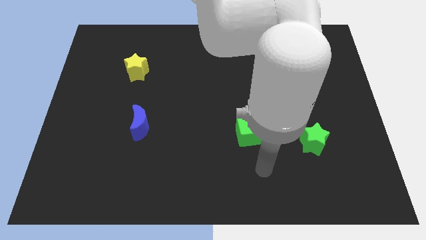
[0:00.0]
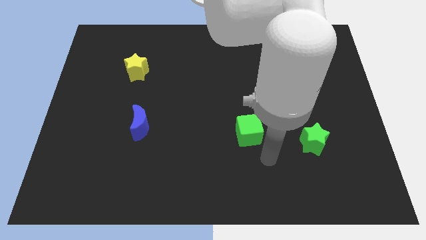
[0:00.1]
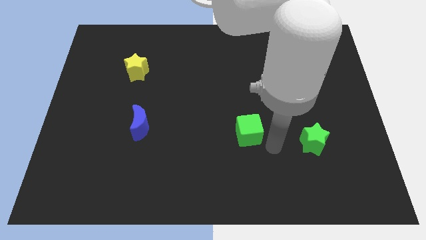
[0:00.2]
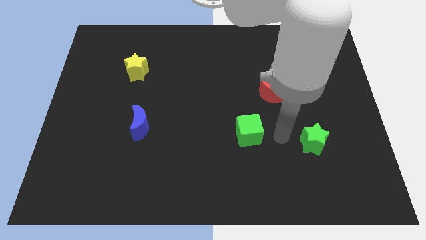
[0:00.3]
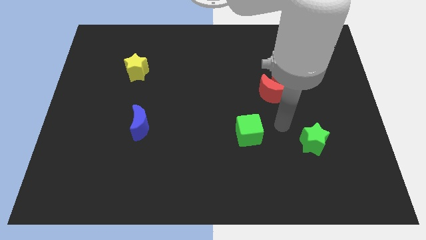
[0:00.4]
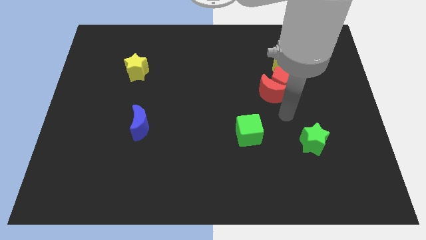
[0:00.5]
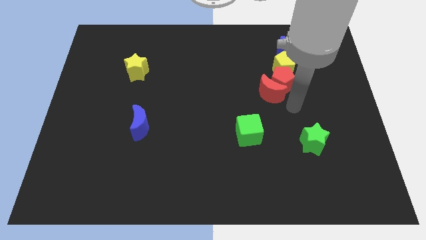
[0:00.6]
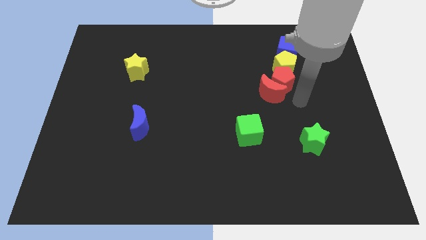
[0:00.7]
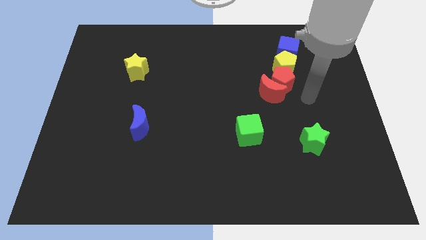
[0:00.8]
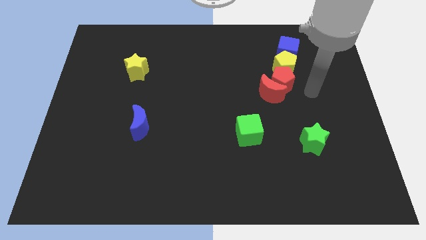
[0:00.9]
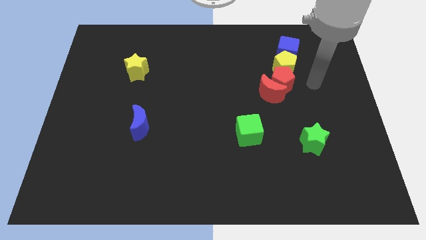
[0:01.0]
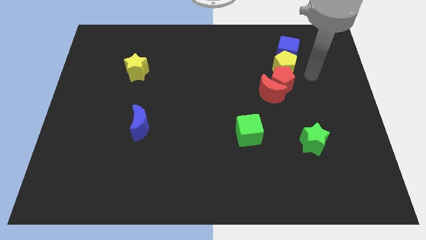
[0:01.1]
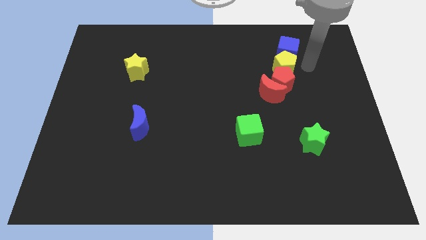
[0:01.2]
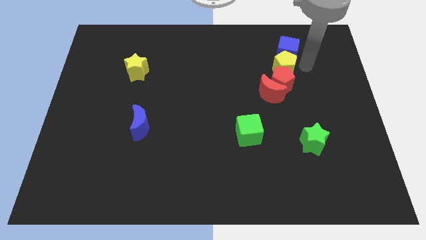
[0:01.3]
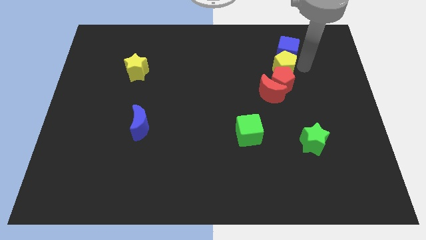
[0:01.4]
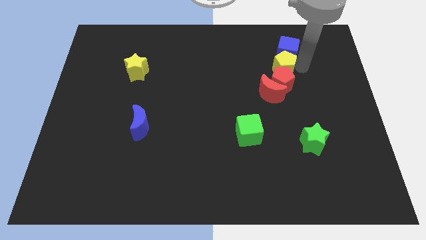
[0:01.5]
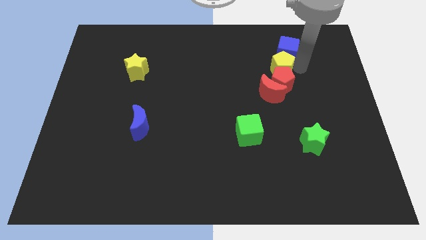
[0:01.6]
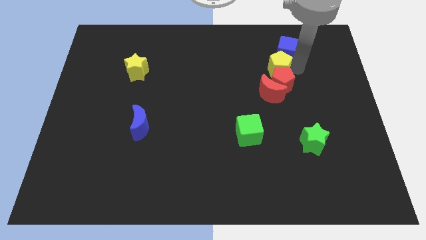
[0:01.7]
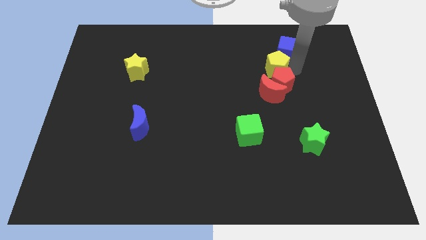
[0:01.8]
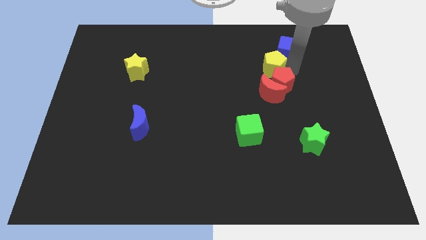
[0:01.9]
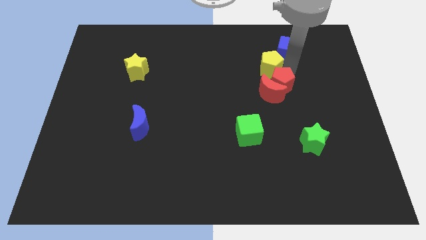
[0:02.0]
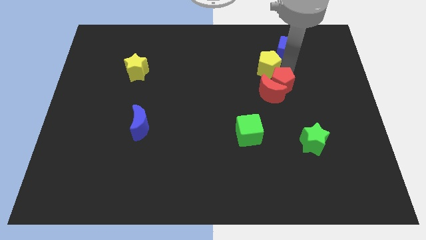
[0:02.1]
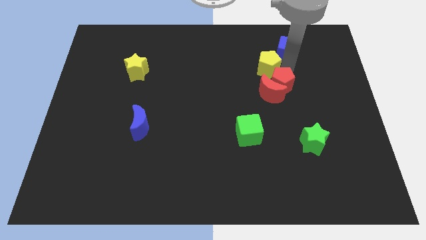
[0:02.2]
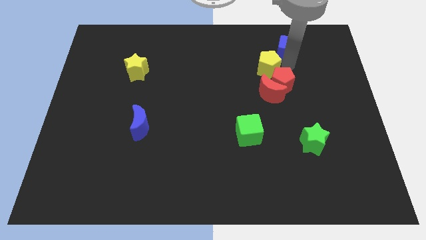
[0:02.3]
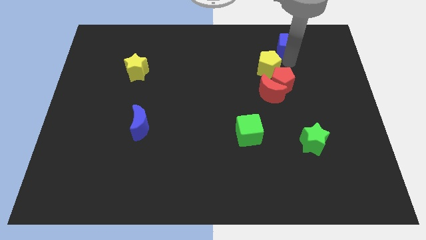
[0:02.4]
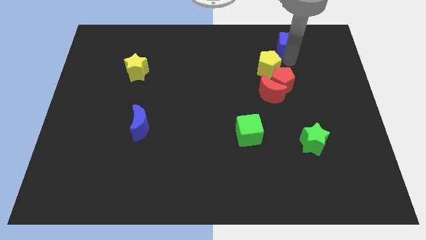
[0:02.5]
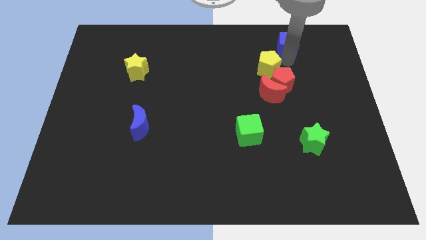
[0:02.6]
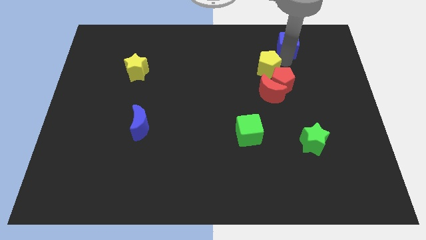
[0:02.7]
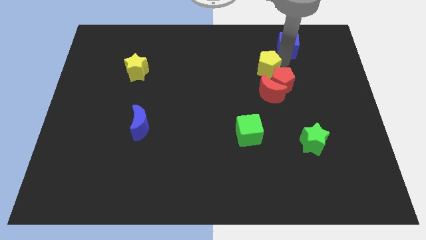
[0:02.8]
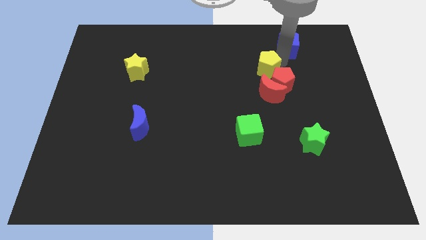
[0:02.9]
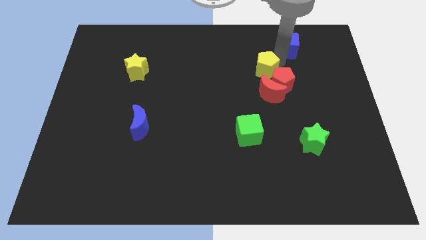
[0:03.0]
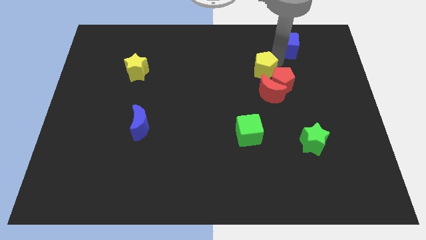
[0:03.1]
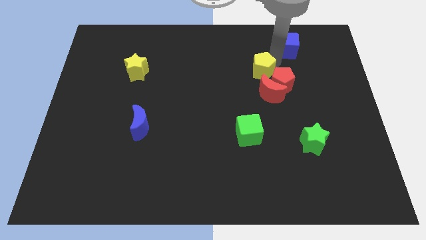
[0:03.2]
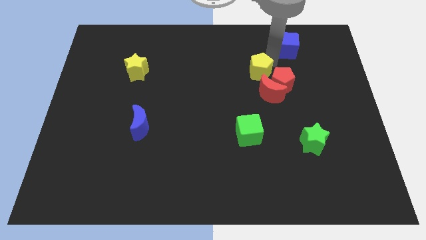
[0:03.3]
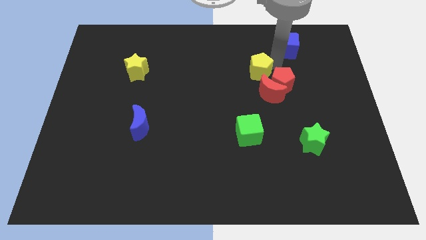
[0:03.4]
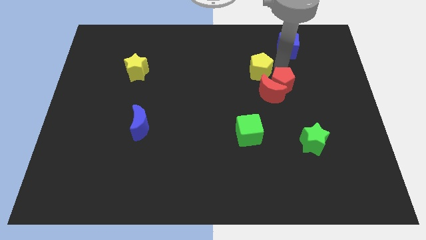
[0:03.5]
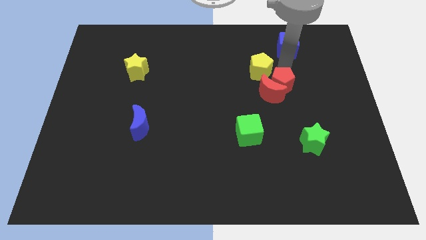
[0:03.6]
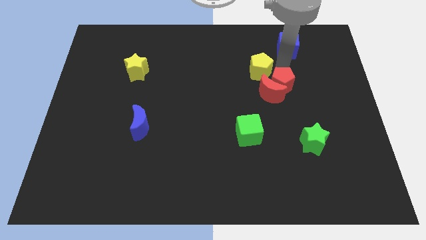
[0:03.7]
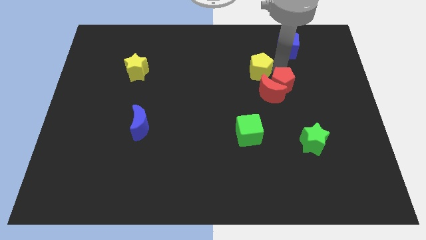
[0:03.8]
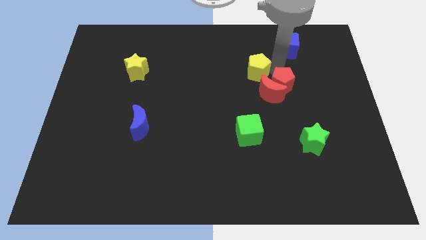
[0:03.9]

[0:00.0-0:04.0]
push the yellow pentagon left somewhat

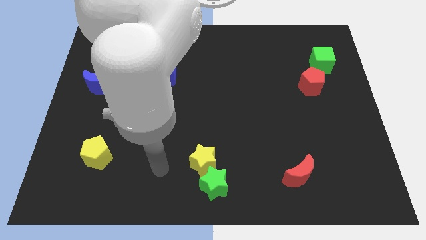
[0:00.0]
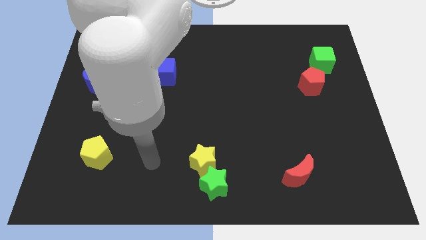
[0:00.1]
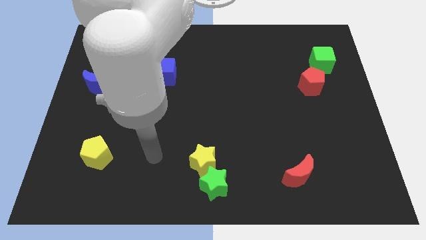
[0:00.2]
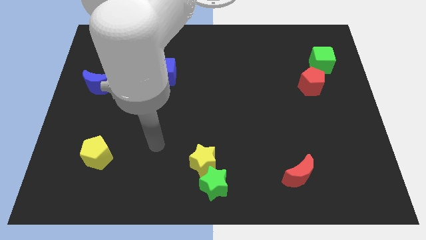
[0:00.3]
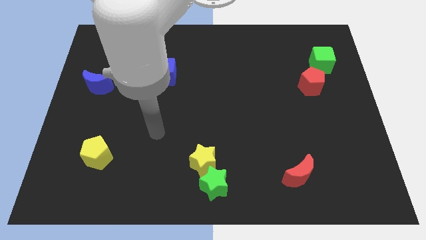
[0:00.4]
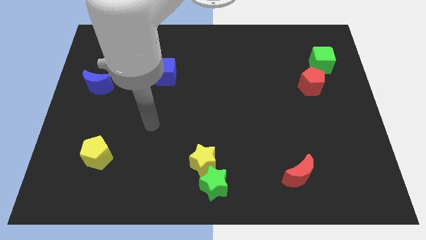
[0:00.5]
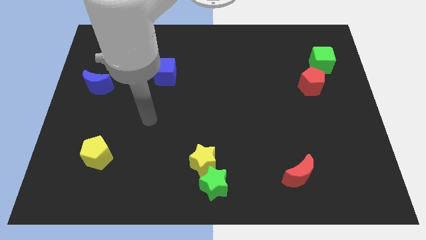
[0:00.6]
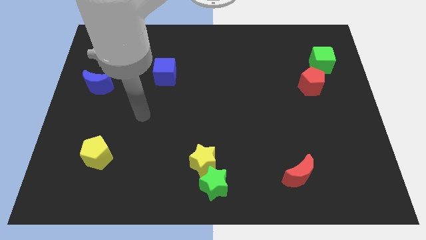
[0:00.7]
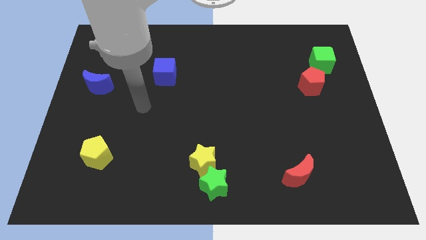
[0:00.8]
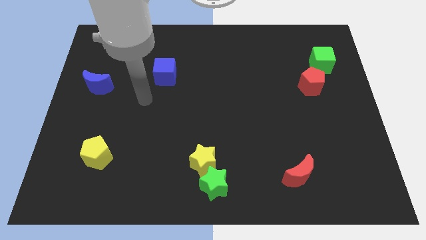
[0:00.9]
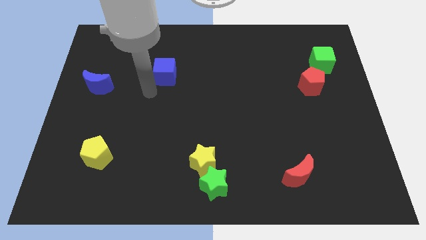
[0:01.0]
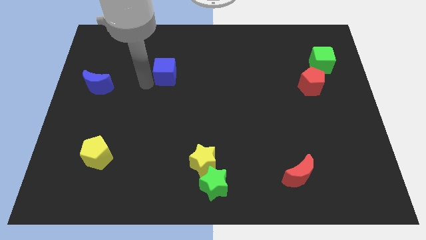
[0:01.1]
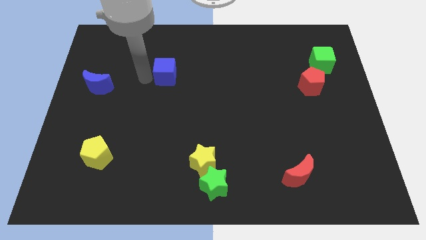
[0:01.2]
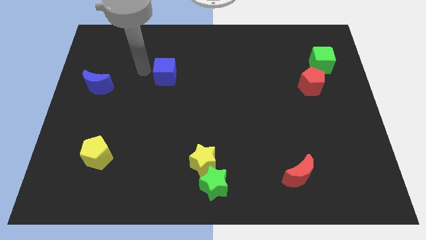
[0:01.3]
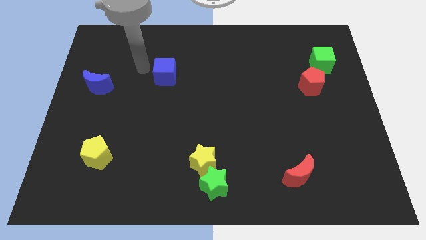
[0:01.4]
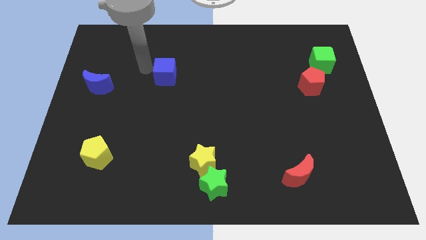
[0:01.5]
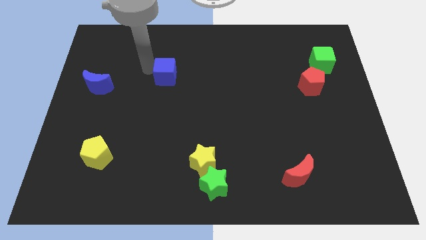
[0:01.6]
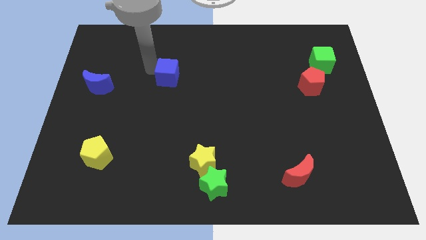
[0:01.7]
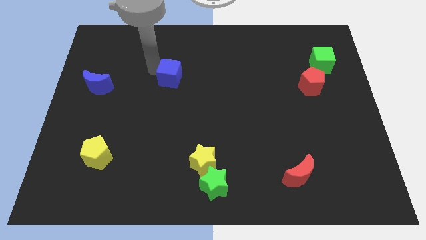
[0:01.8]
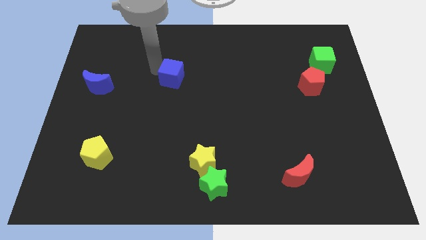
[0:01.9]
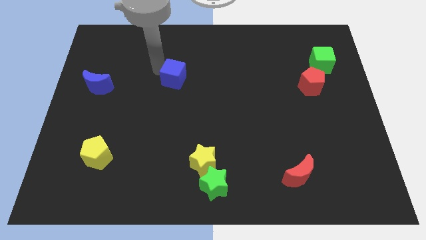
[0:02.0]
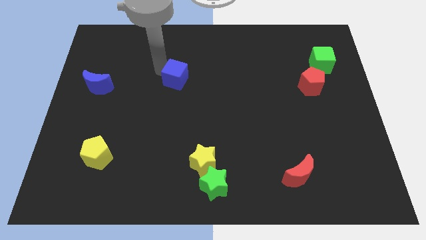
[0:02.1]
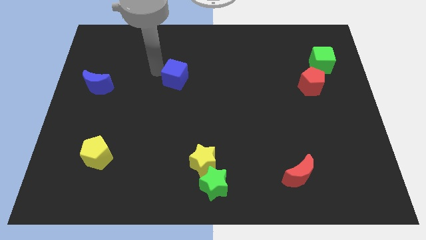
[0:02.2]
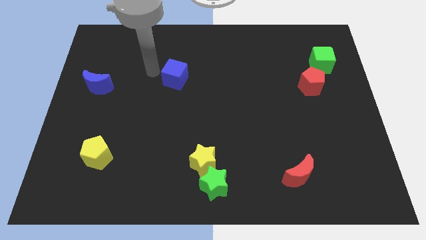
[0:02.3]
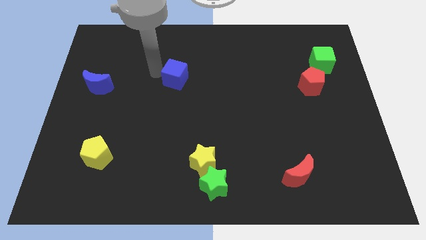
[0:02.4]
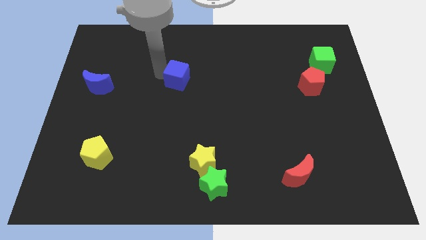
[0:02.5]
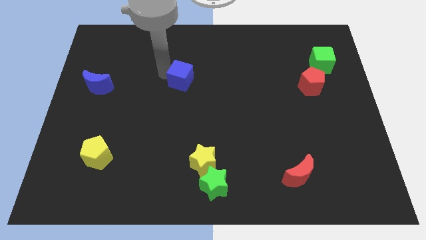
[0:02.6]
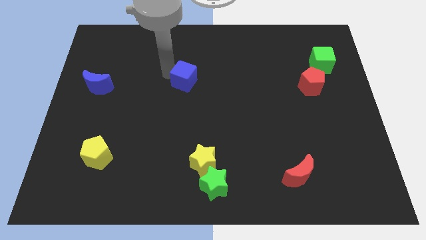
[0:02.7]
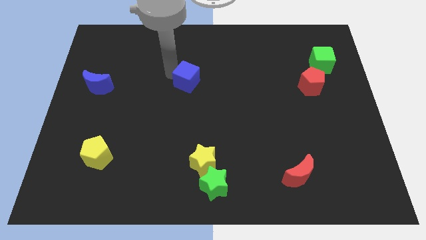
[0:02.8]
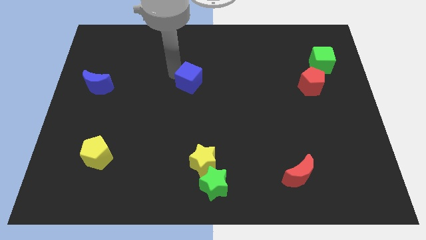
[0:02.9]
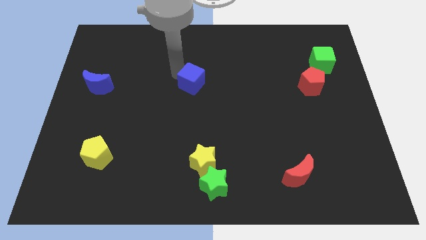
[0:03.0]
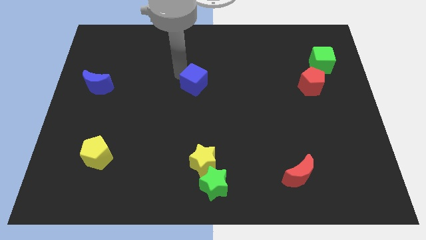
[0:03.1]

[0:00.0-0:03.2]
slightly slide the blue cube down and right

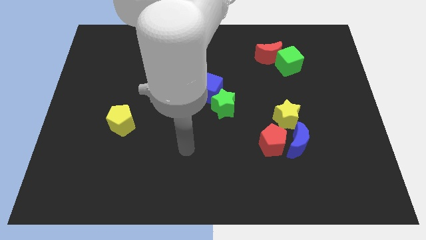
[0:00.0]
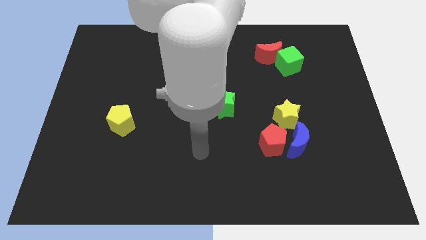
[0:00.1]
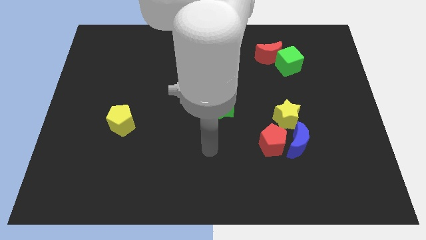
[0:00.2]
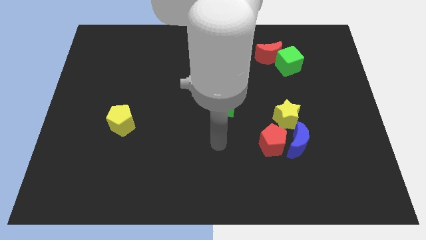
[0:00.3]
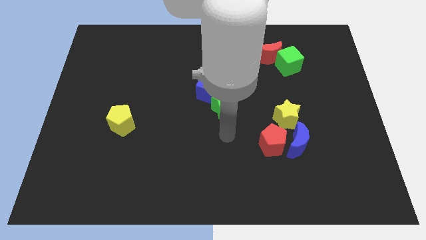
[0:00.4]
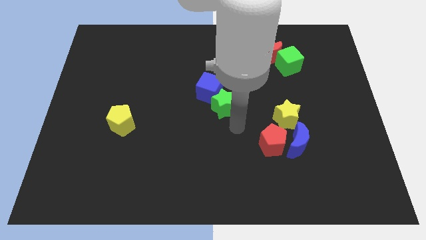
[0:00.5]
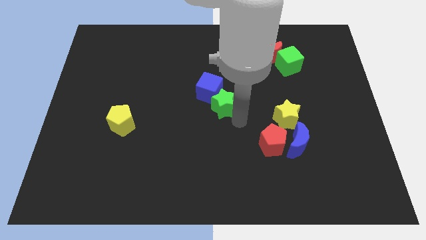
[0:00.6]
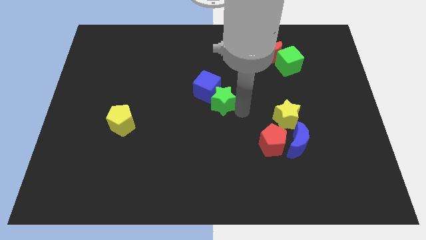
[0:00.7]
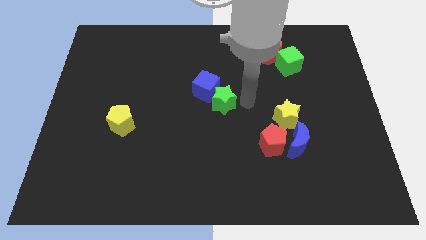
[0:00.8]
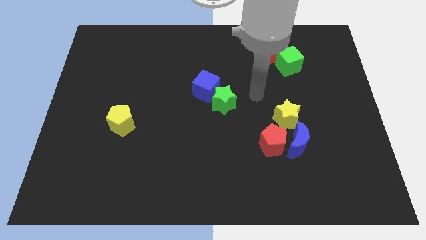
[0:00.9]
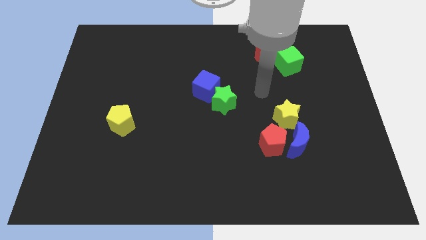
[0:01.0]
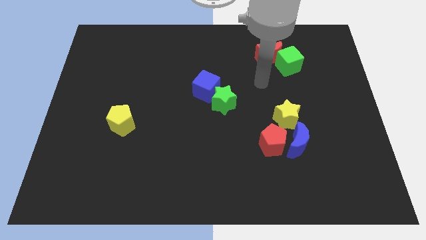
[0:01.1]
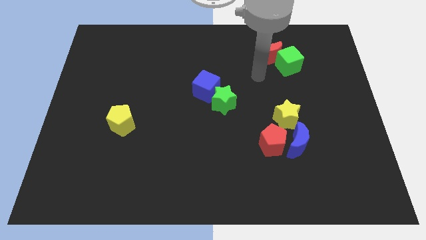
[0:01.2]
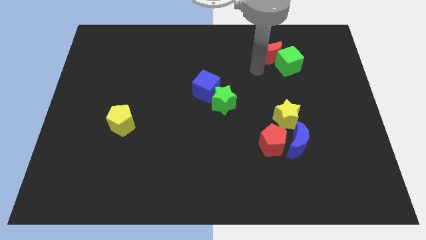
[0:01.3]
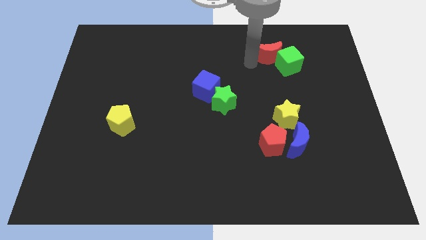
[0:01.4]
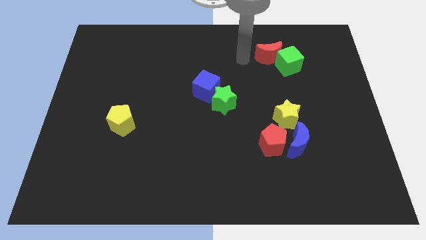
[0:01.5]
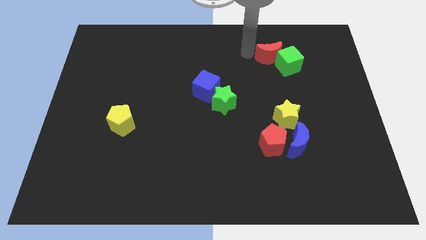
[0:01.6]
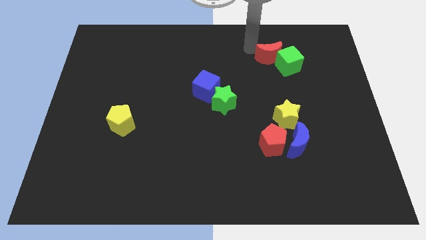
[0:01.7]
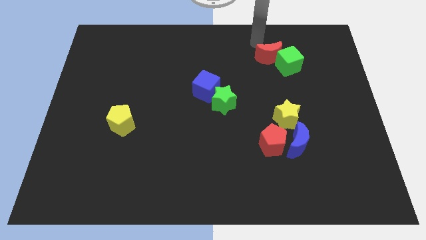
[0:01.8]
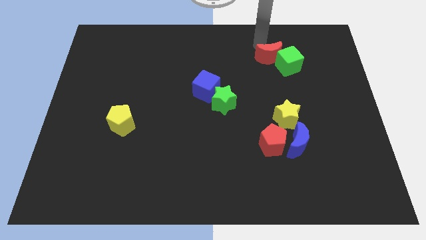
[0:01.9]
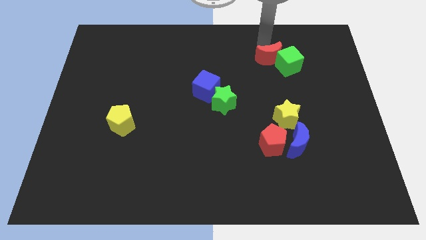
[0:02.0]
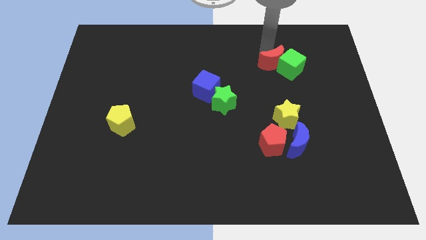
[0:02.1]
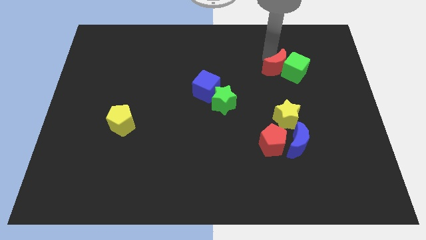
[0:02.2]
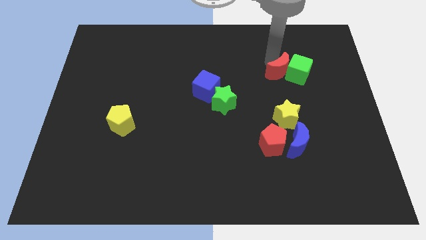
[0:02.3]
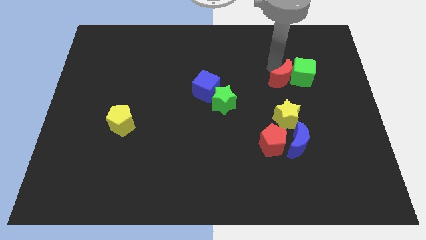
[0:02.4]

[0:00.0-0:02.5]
slightly slide the red moon downwards and right
